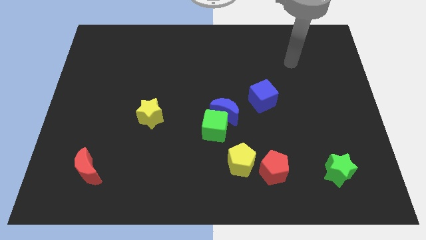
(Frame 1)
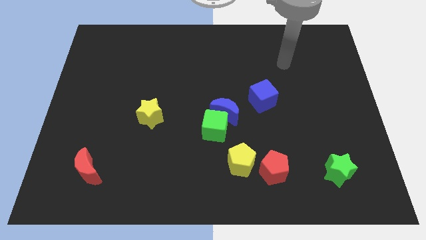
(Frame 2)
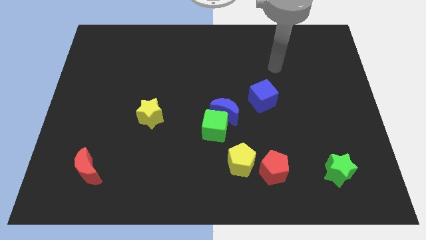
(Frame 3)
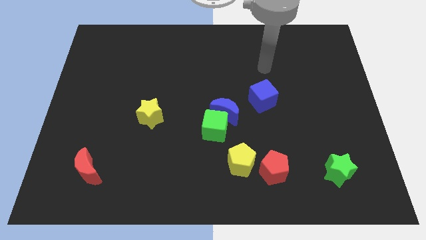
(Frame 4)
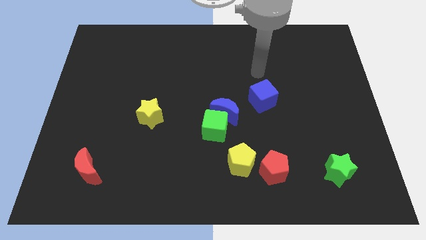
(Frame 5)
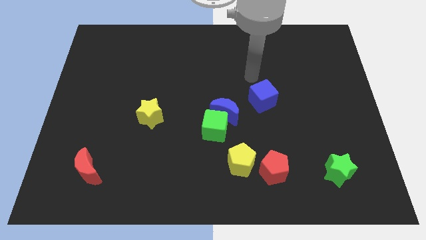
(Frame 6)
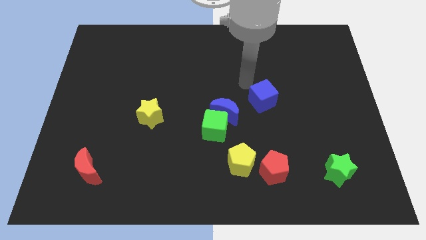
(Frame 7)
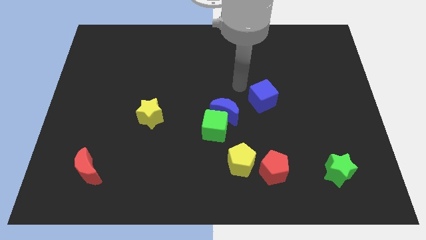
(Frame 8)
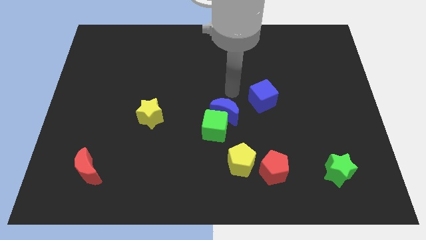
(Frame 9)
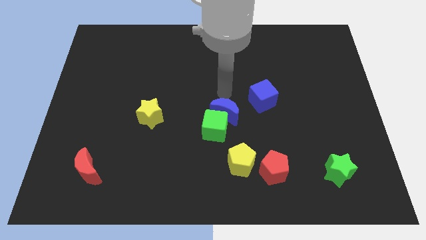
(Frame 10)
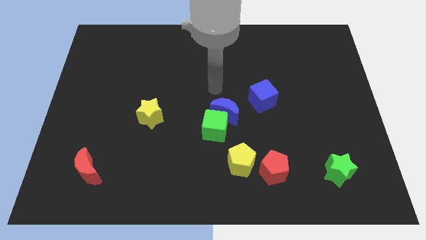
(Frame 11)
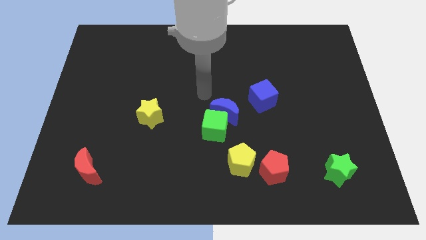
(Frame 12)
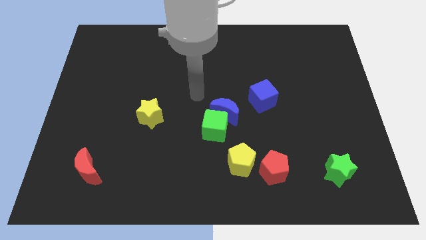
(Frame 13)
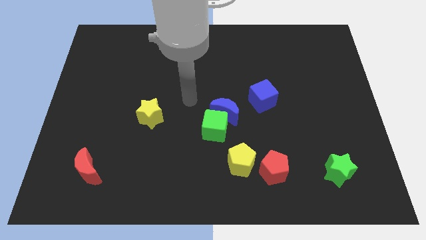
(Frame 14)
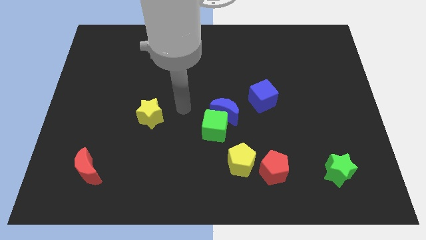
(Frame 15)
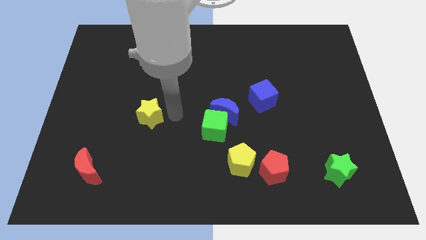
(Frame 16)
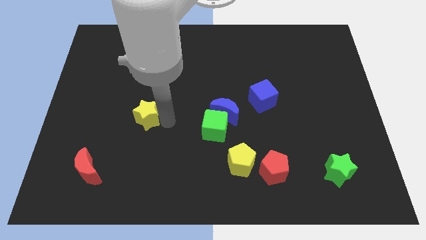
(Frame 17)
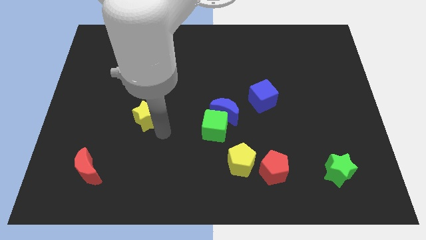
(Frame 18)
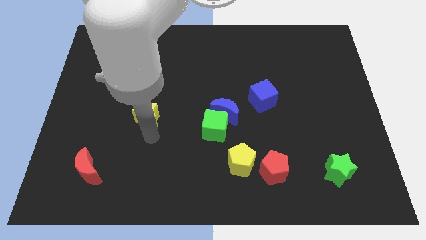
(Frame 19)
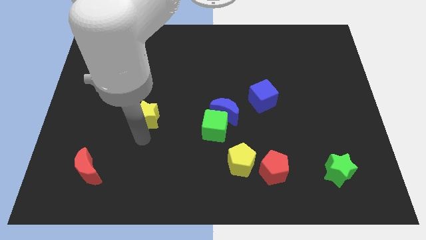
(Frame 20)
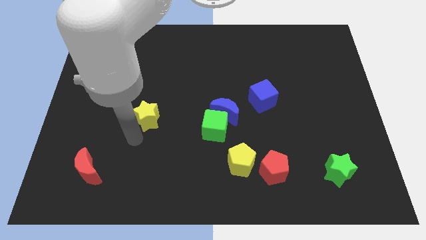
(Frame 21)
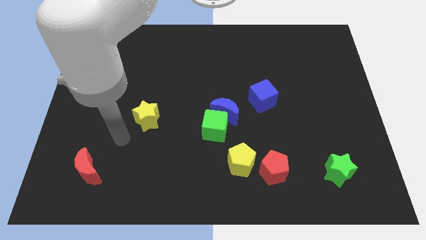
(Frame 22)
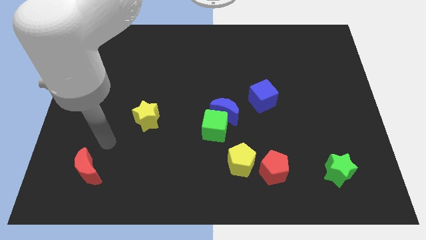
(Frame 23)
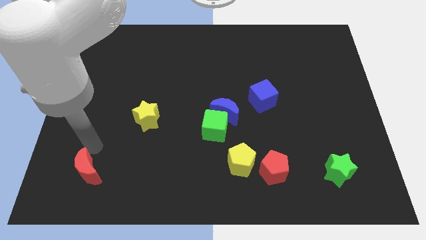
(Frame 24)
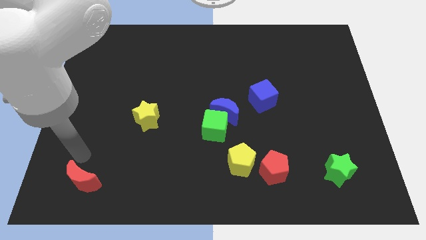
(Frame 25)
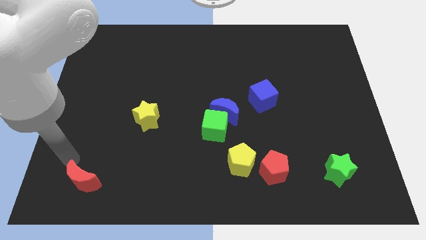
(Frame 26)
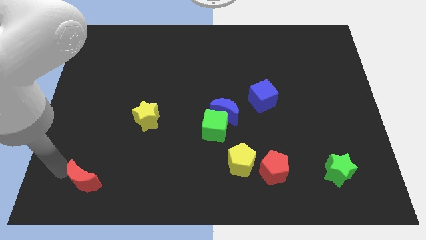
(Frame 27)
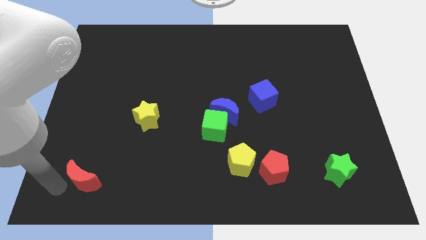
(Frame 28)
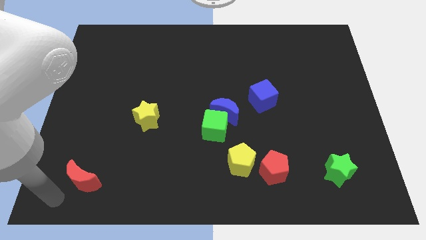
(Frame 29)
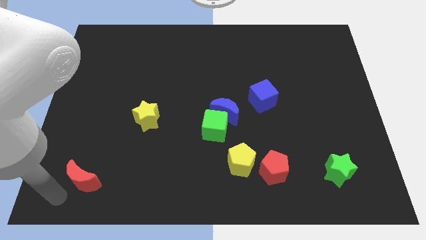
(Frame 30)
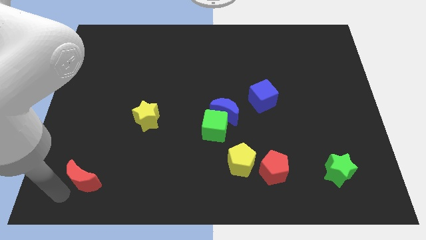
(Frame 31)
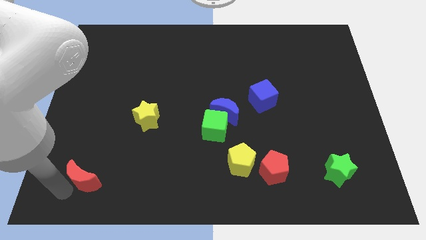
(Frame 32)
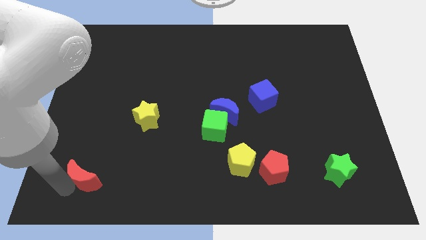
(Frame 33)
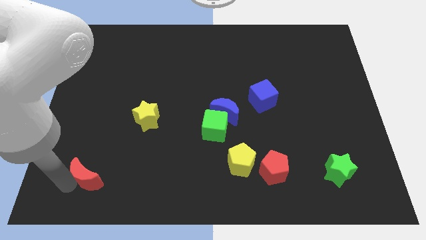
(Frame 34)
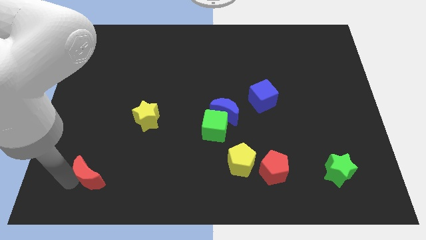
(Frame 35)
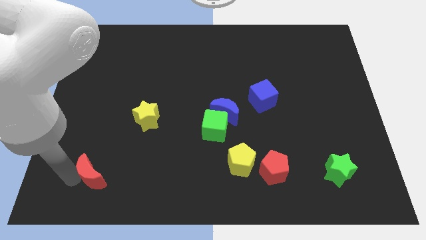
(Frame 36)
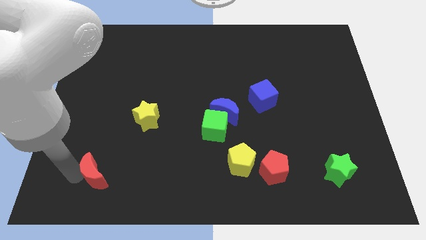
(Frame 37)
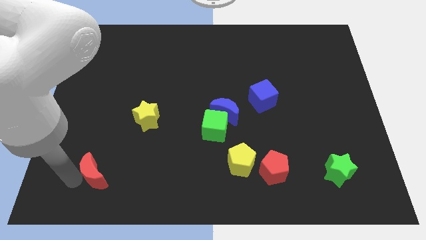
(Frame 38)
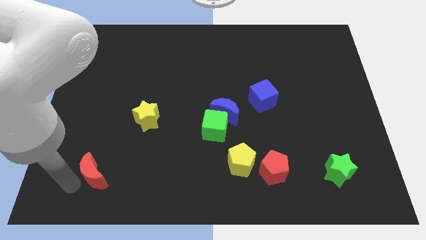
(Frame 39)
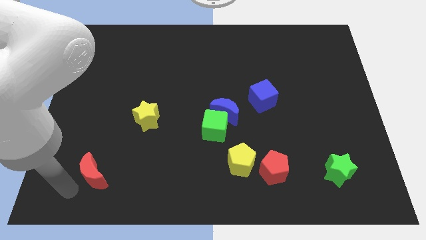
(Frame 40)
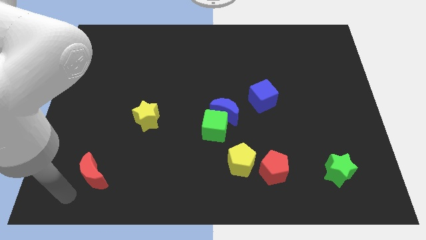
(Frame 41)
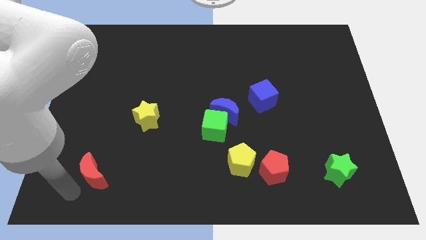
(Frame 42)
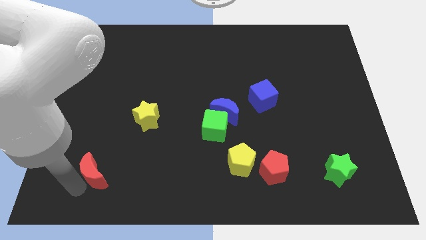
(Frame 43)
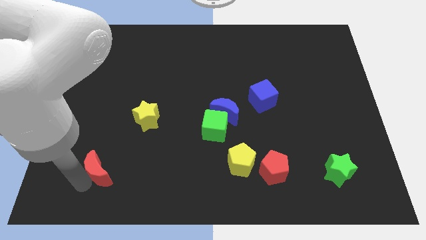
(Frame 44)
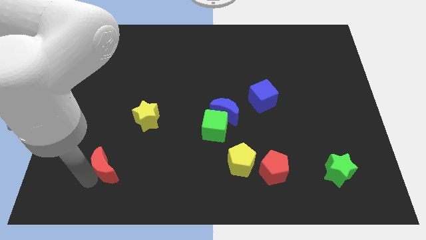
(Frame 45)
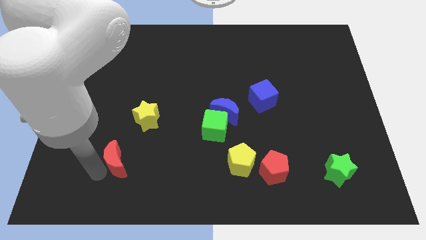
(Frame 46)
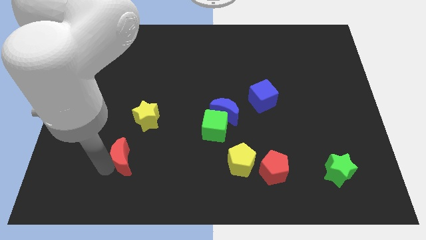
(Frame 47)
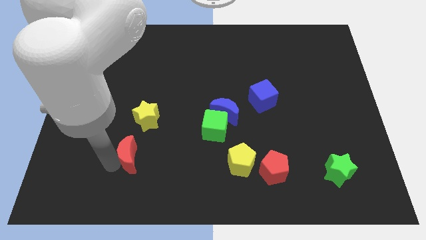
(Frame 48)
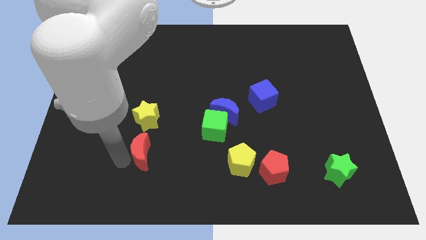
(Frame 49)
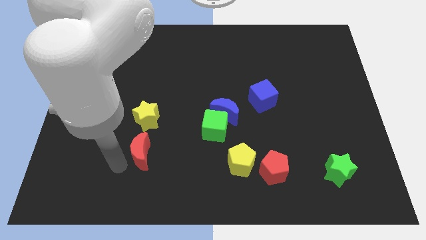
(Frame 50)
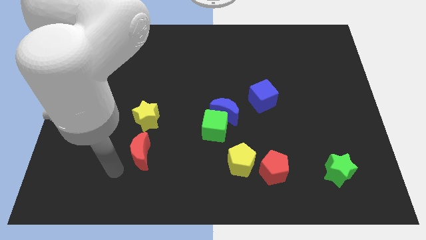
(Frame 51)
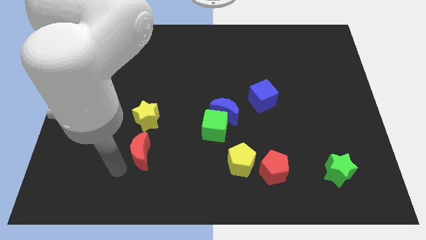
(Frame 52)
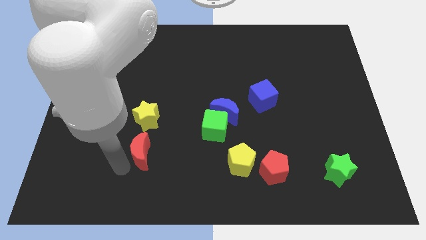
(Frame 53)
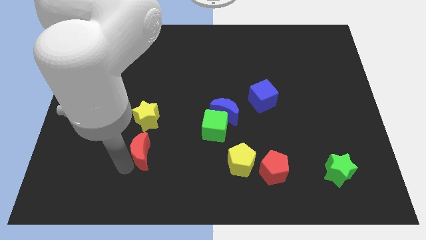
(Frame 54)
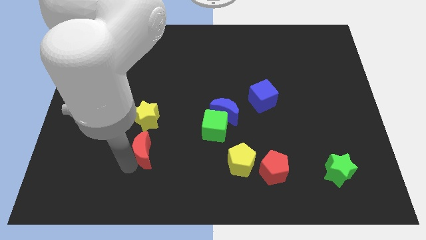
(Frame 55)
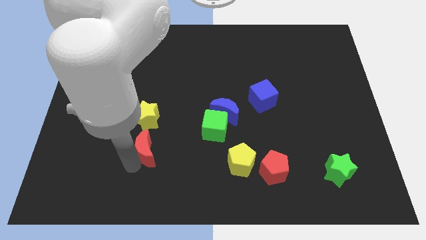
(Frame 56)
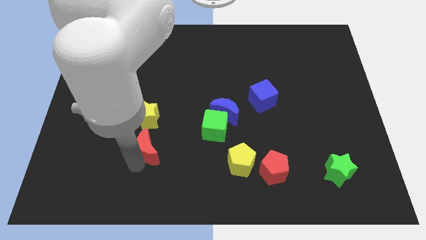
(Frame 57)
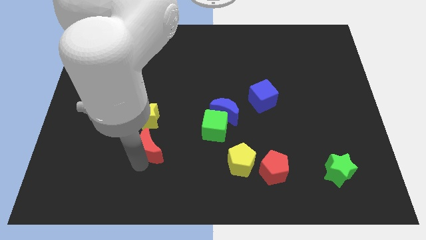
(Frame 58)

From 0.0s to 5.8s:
move the red moon to the bottom right side of the yellow star

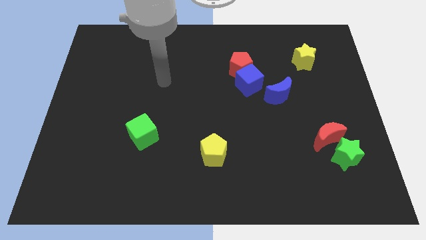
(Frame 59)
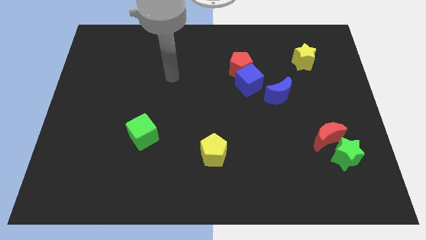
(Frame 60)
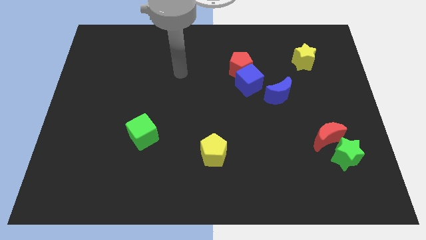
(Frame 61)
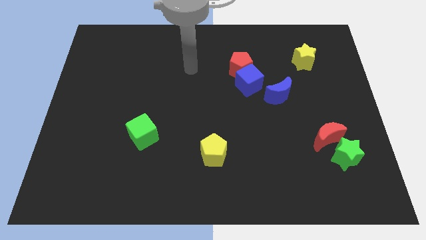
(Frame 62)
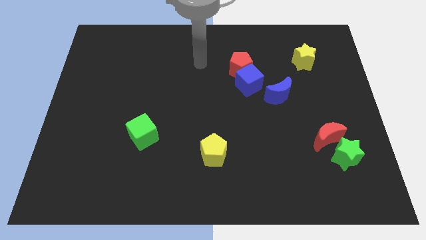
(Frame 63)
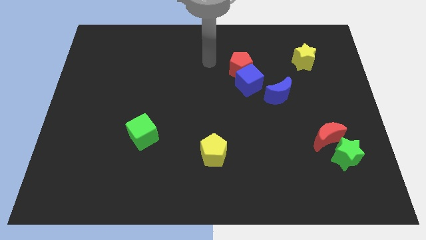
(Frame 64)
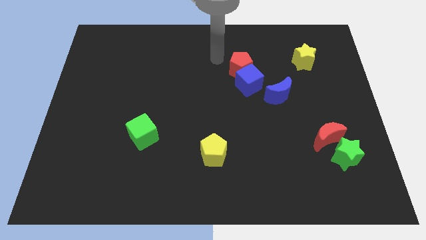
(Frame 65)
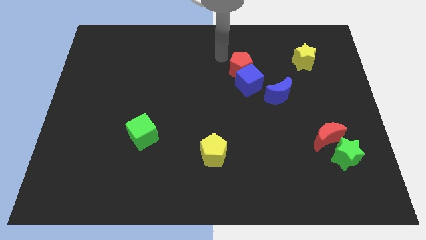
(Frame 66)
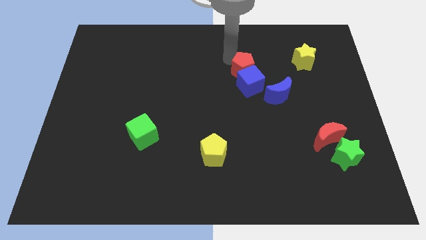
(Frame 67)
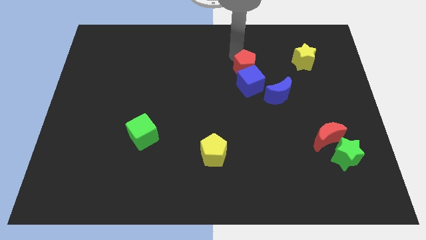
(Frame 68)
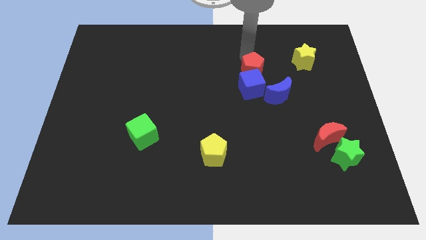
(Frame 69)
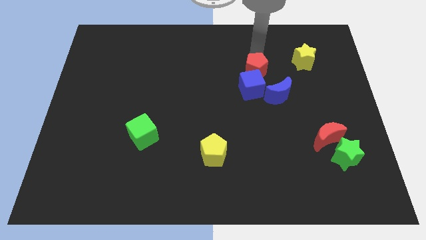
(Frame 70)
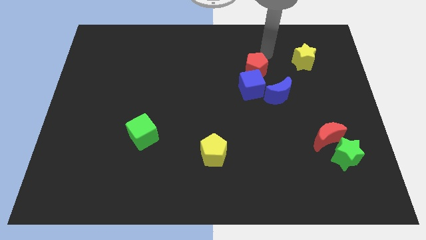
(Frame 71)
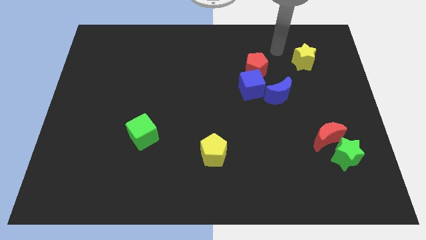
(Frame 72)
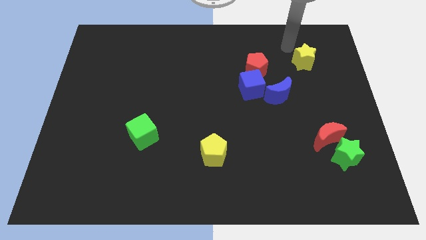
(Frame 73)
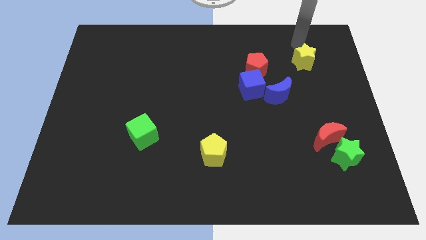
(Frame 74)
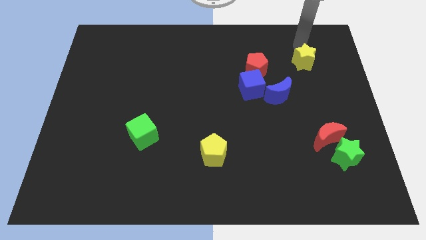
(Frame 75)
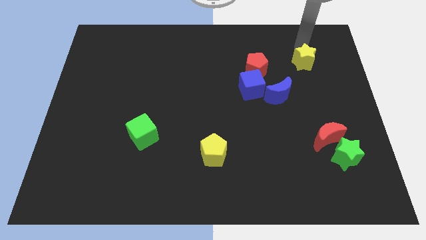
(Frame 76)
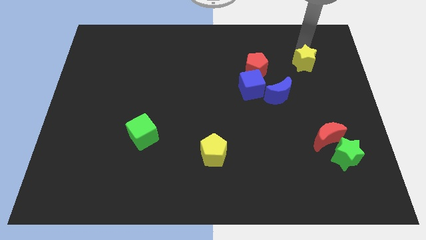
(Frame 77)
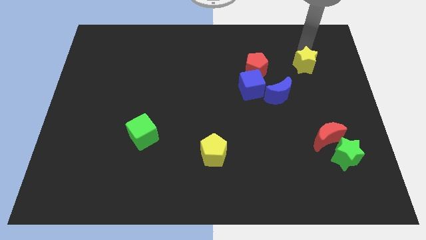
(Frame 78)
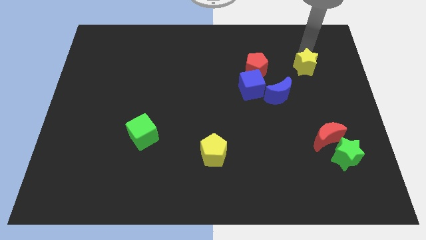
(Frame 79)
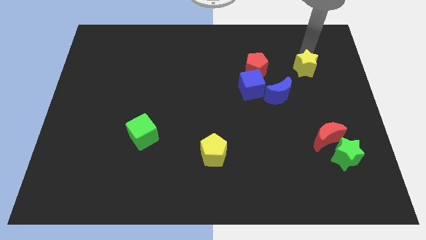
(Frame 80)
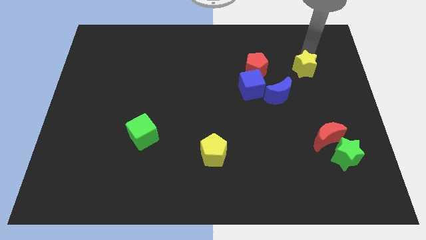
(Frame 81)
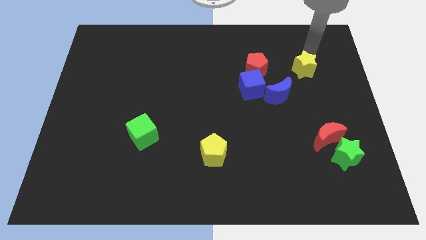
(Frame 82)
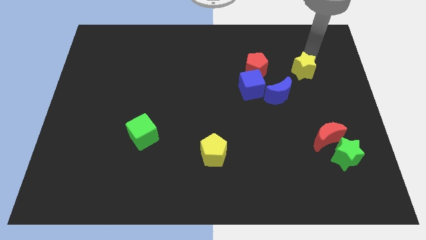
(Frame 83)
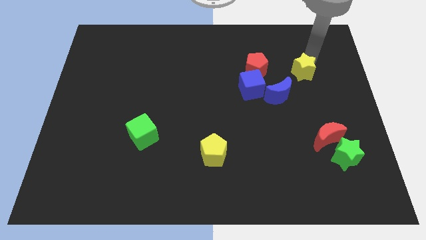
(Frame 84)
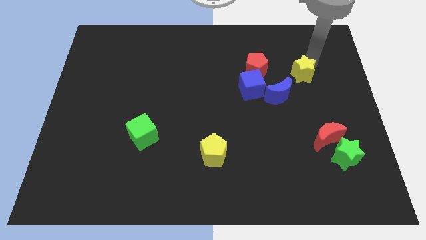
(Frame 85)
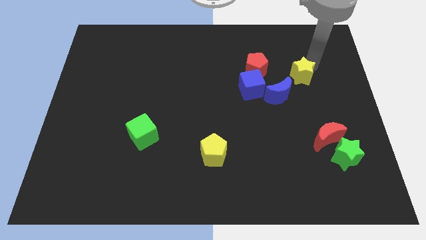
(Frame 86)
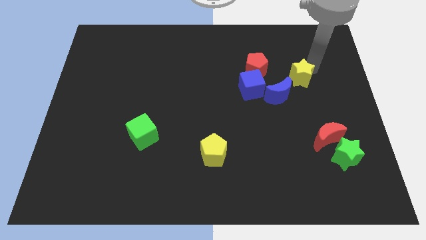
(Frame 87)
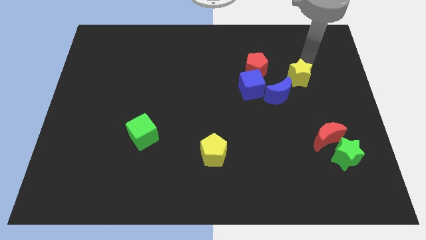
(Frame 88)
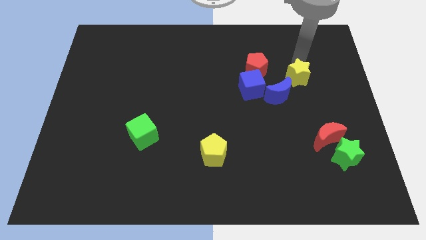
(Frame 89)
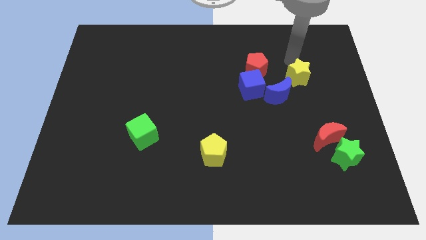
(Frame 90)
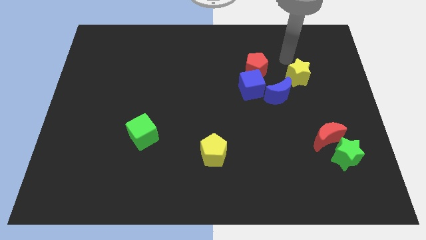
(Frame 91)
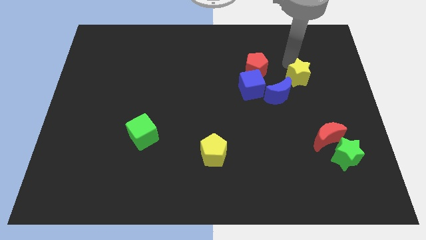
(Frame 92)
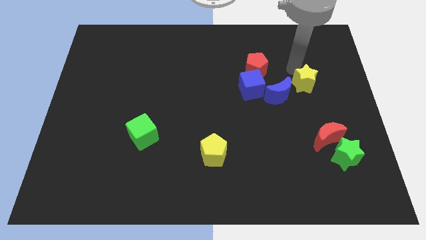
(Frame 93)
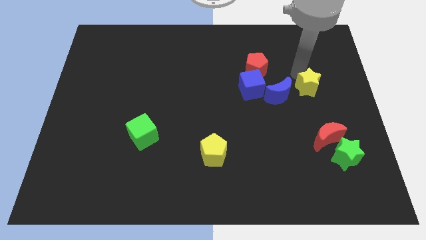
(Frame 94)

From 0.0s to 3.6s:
put the yellow star to the top of the red moon
